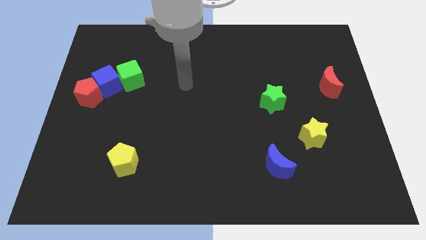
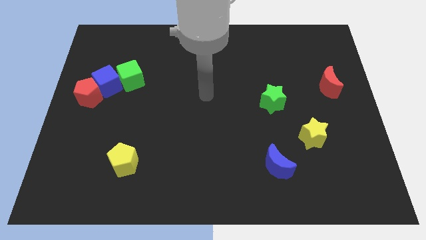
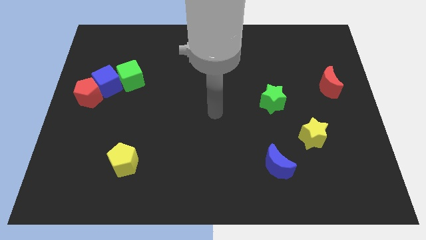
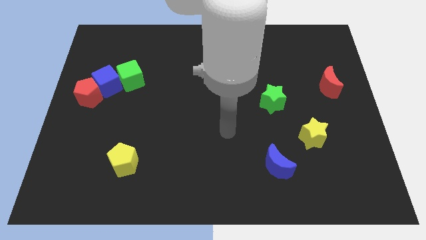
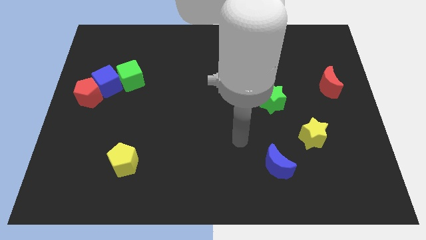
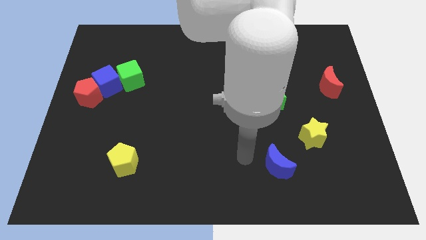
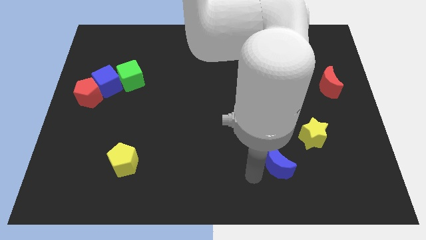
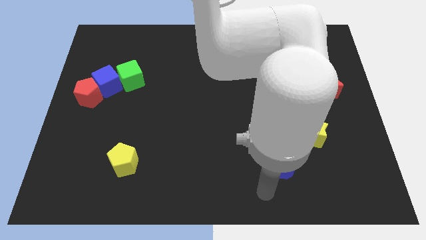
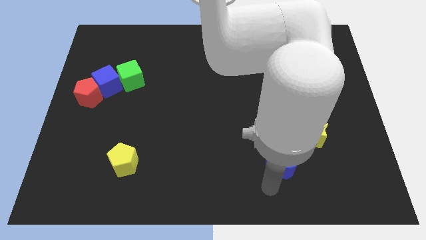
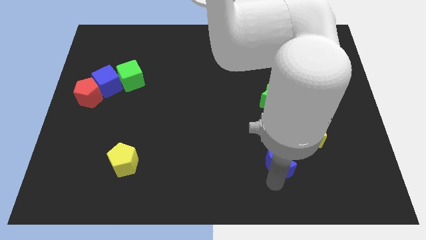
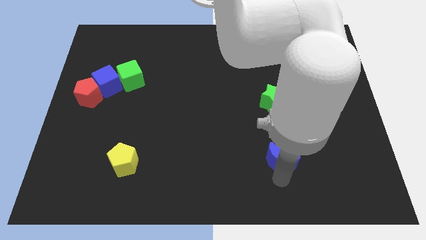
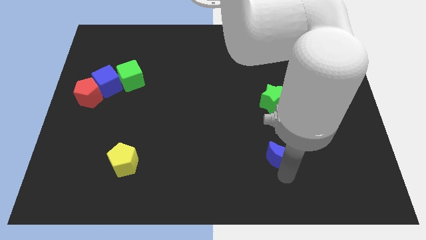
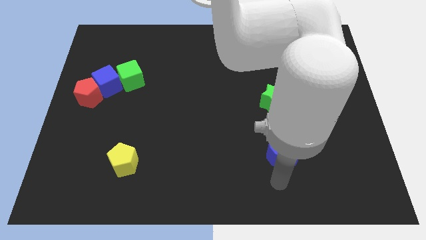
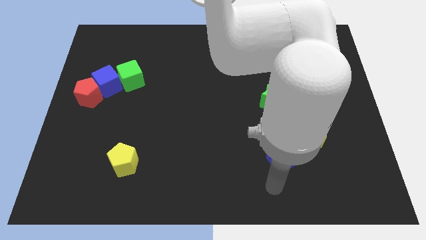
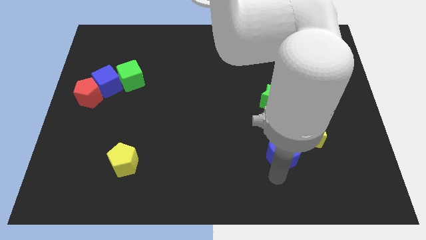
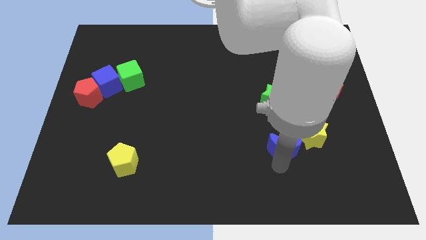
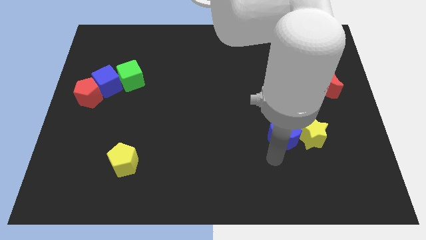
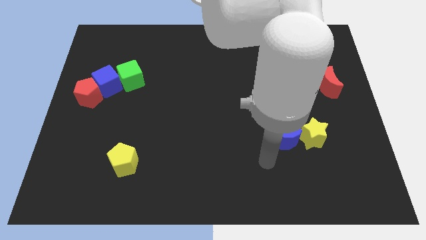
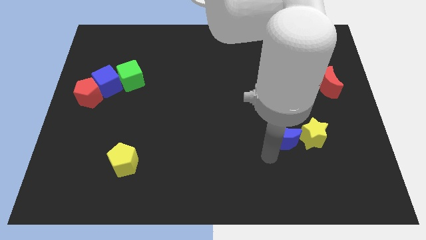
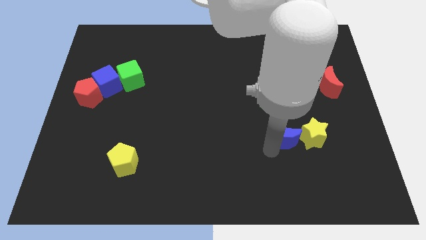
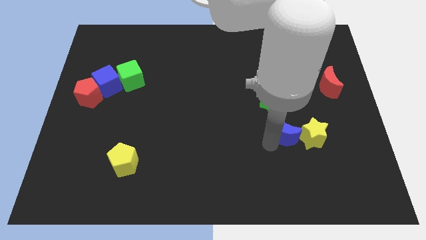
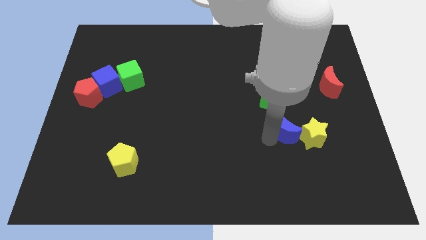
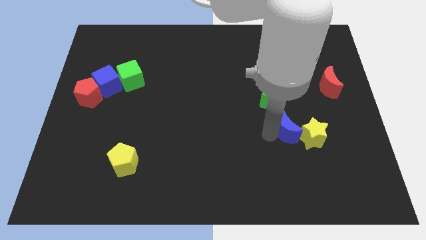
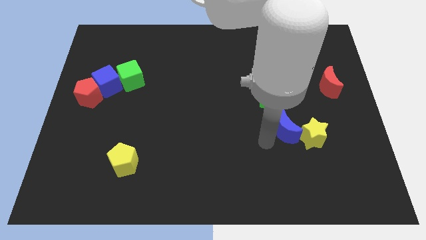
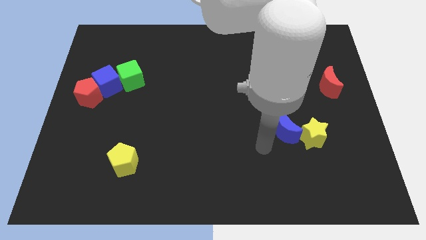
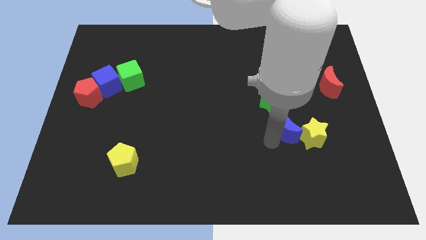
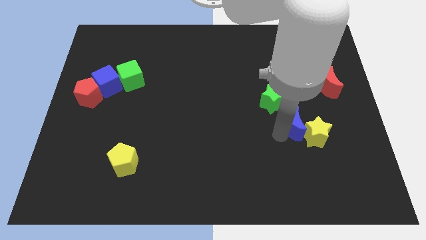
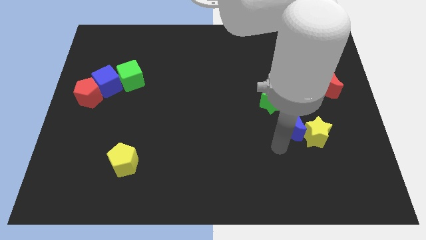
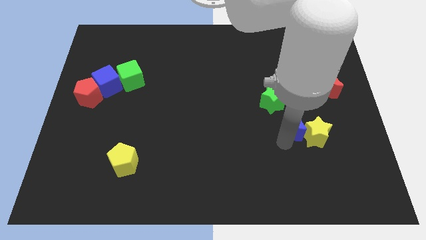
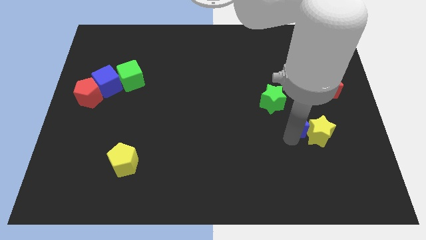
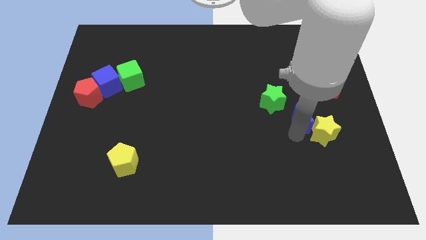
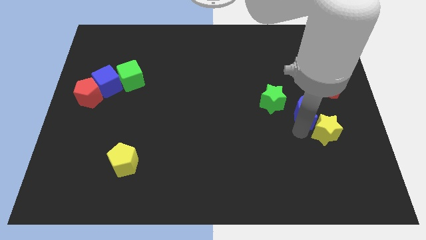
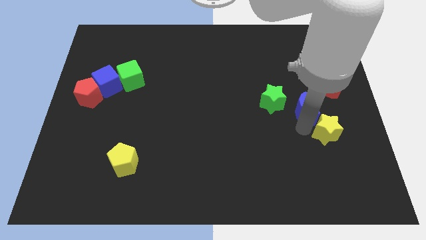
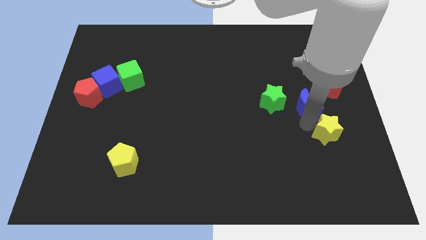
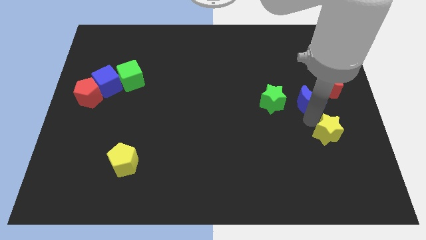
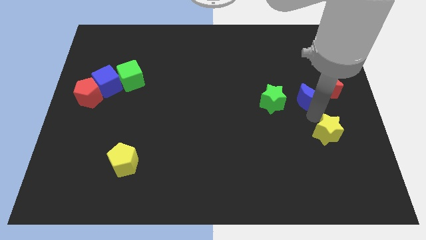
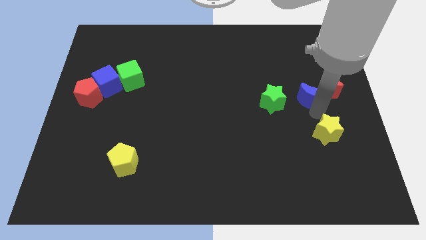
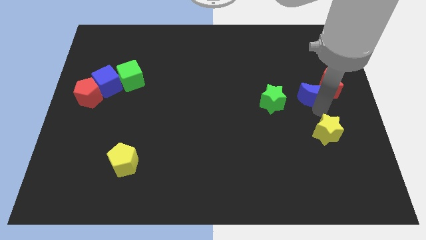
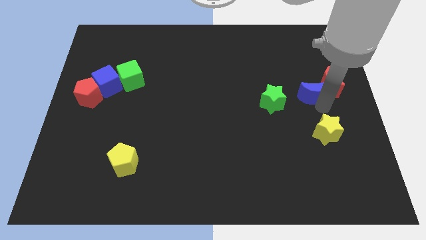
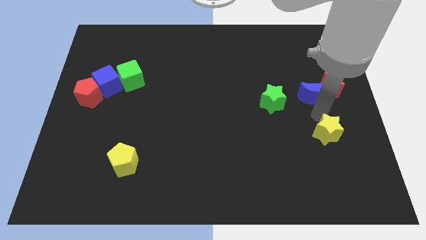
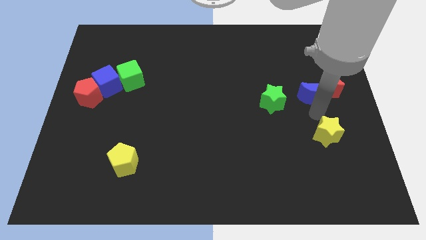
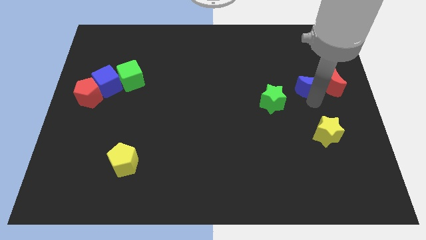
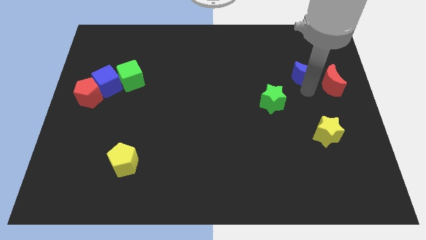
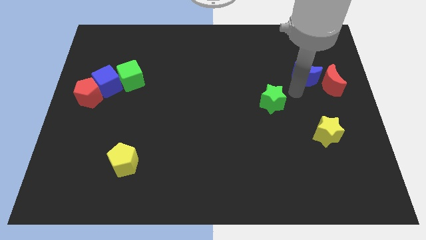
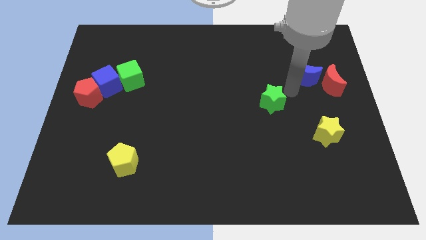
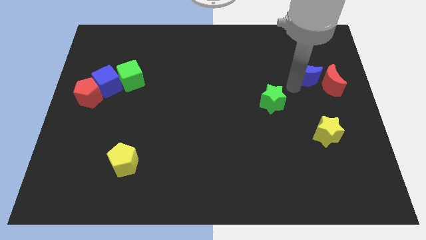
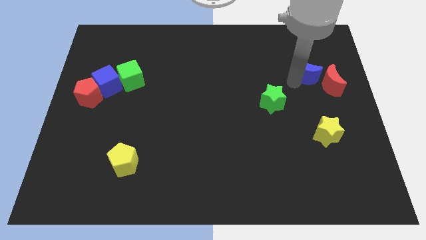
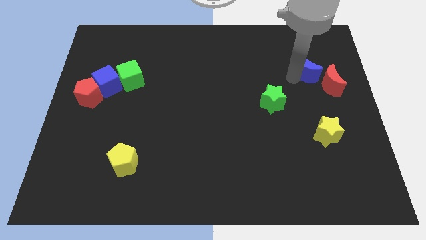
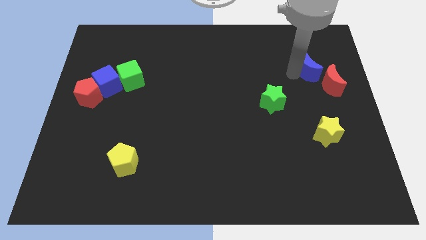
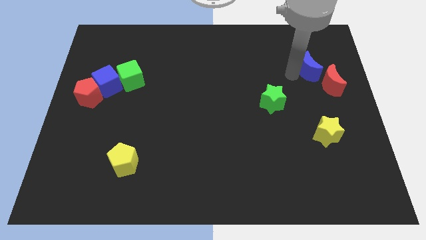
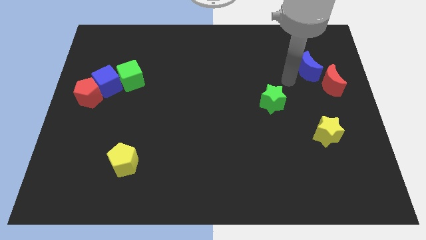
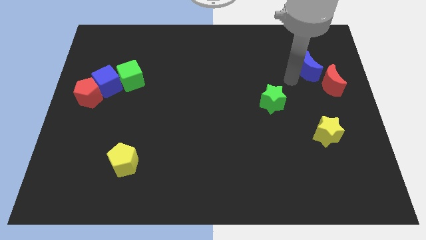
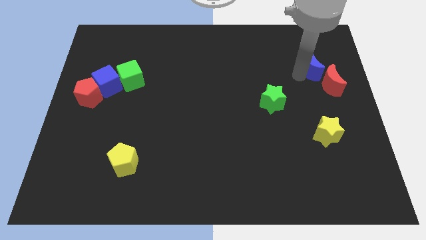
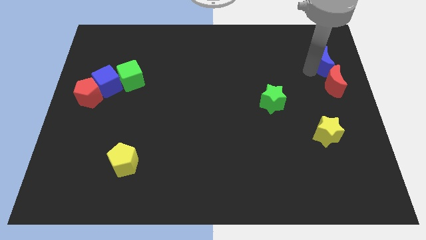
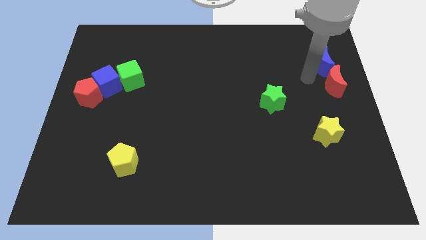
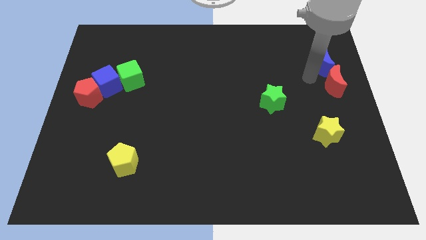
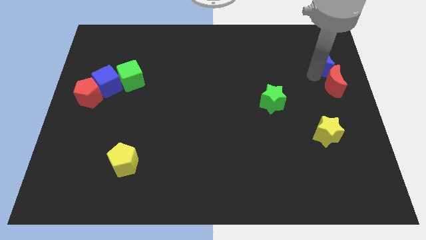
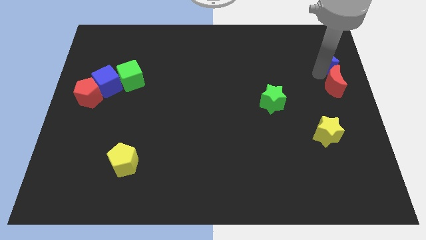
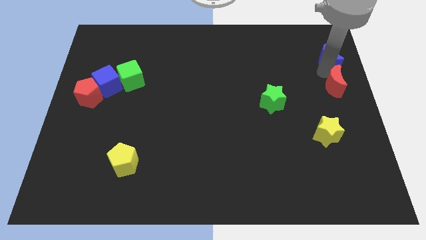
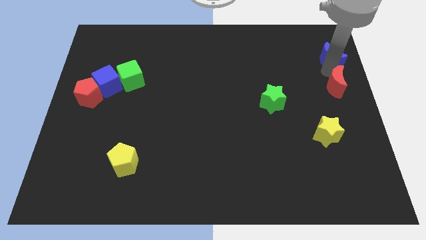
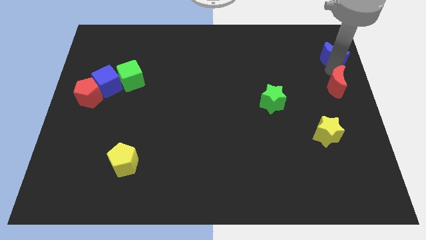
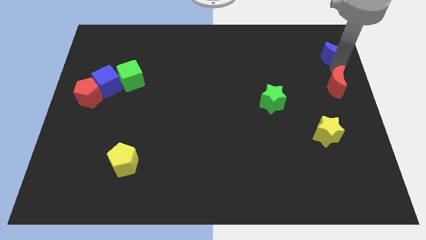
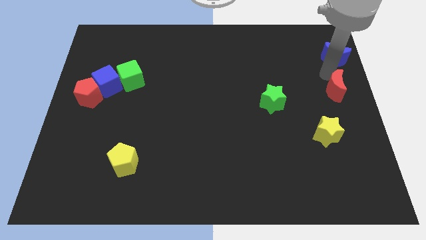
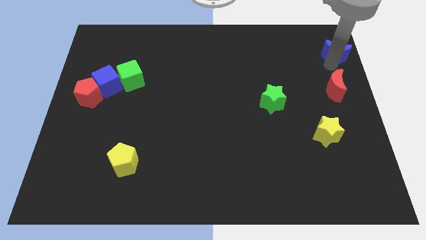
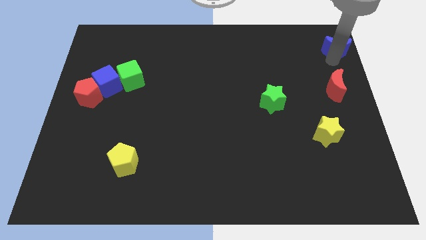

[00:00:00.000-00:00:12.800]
move the blue moon to the top right of the board
